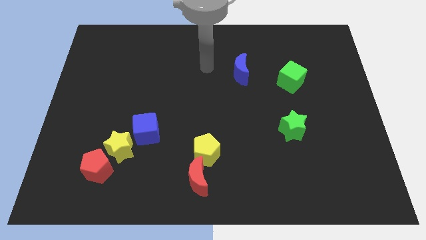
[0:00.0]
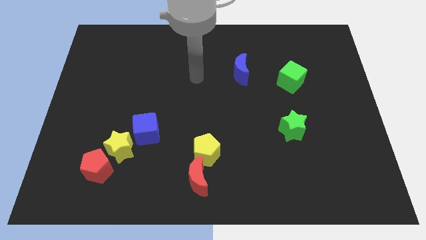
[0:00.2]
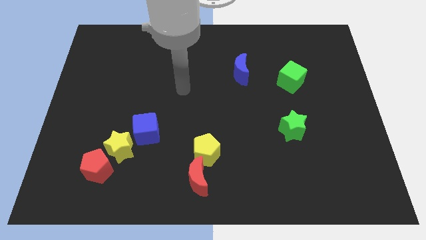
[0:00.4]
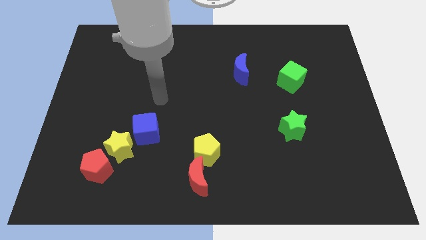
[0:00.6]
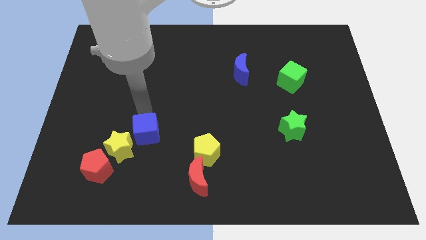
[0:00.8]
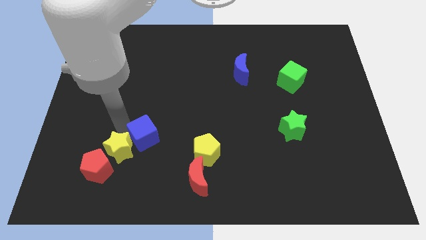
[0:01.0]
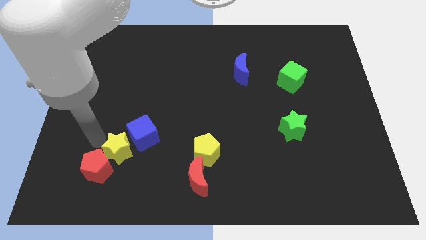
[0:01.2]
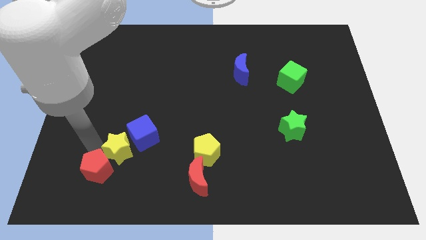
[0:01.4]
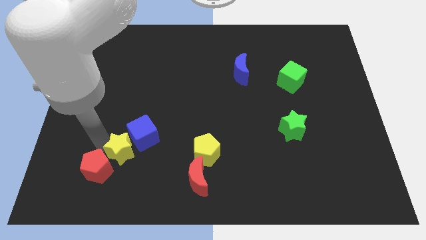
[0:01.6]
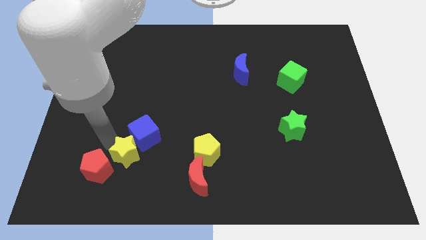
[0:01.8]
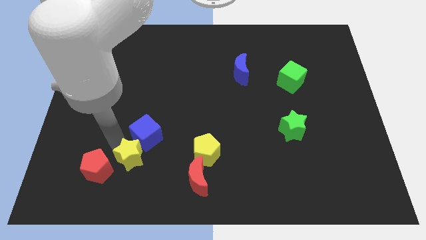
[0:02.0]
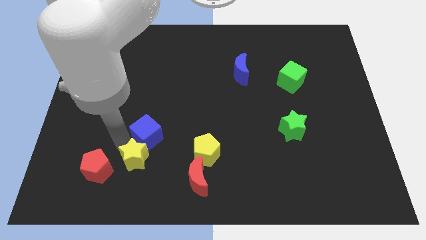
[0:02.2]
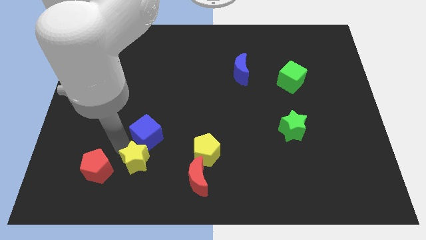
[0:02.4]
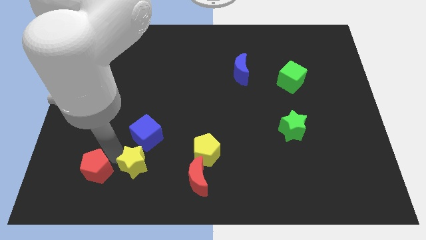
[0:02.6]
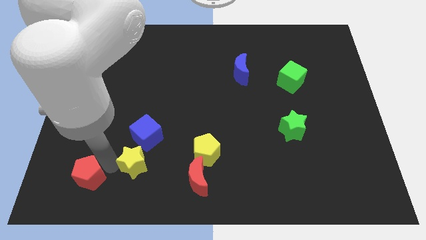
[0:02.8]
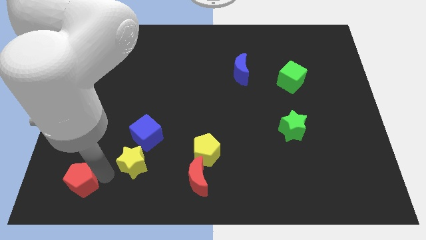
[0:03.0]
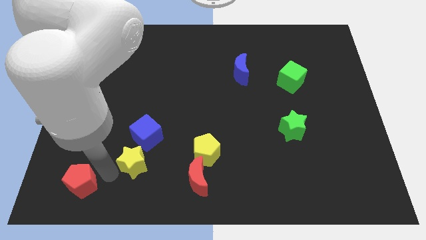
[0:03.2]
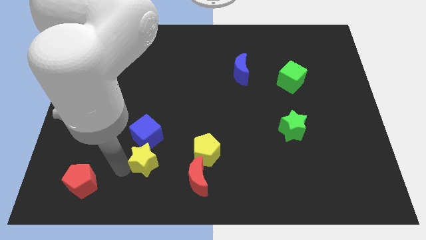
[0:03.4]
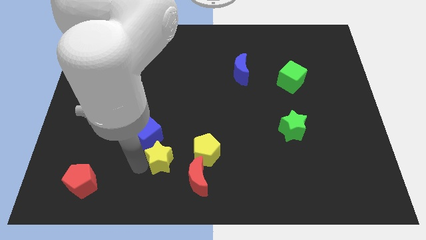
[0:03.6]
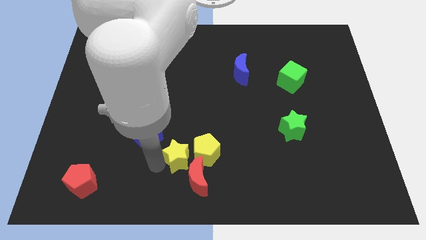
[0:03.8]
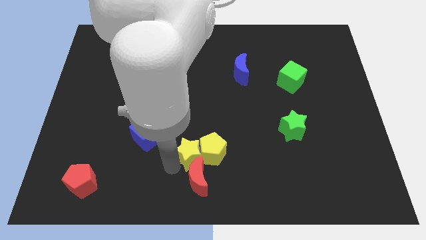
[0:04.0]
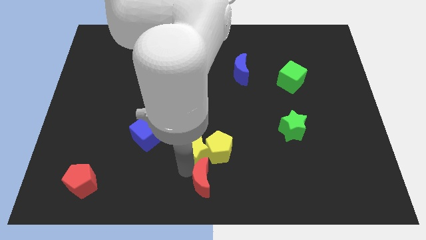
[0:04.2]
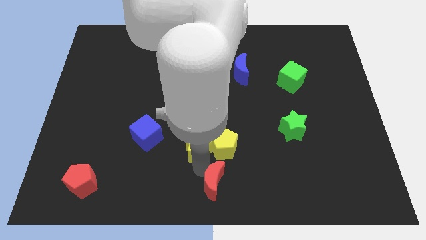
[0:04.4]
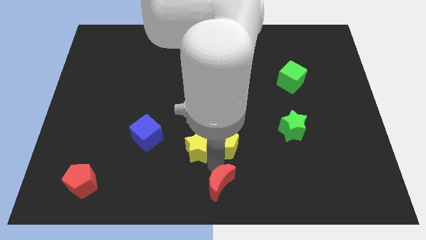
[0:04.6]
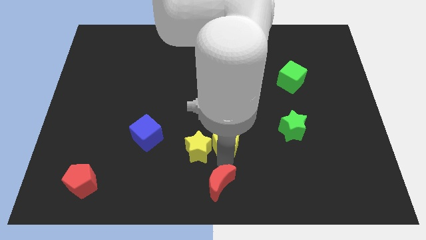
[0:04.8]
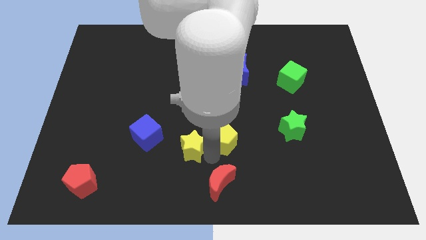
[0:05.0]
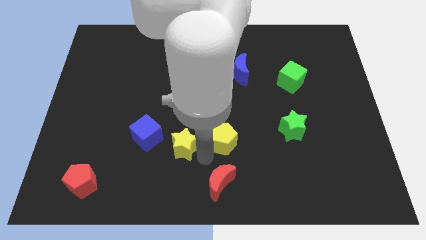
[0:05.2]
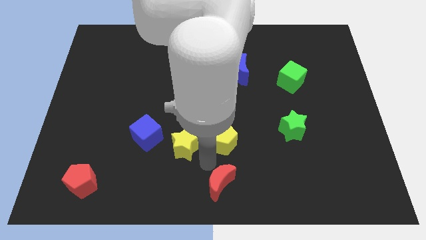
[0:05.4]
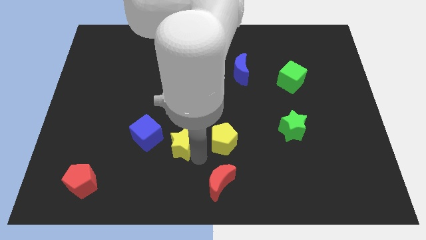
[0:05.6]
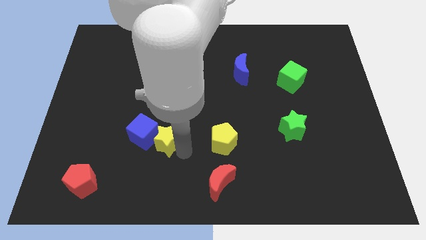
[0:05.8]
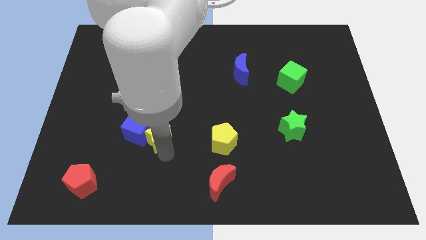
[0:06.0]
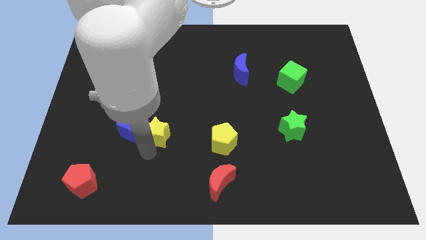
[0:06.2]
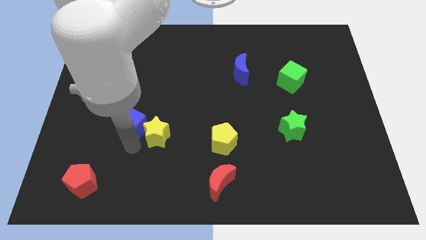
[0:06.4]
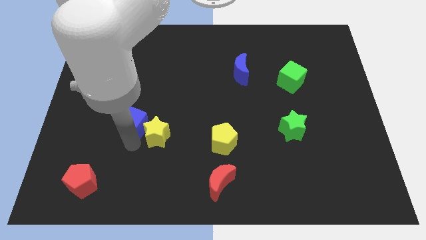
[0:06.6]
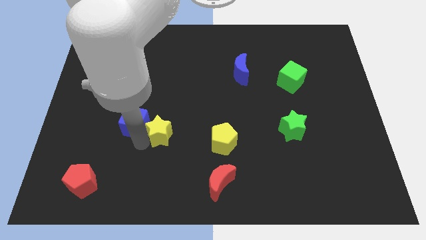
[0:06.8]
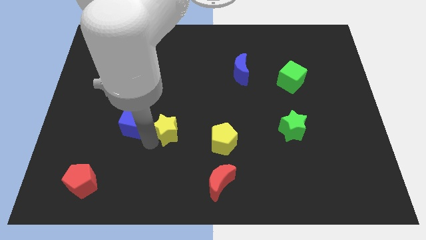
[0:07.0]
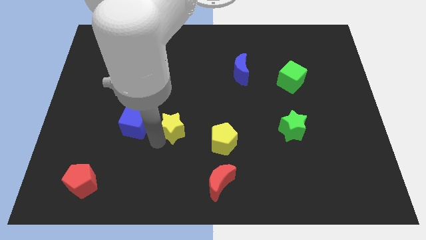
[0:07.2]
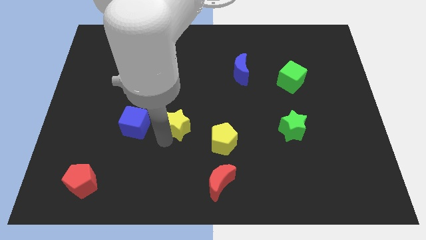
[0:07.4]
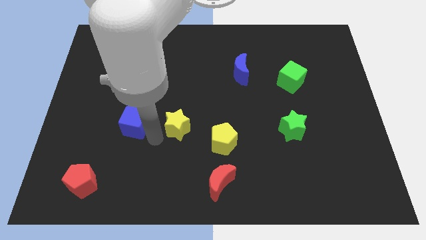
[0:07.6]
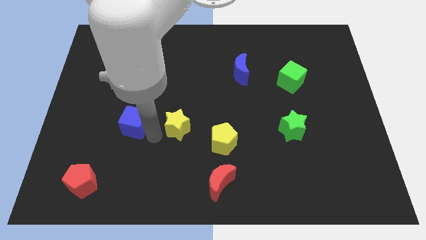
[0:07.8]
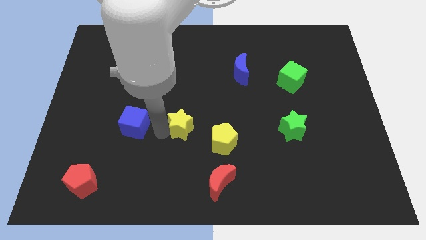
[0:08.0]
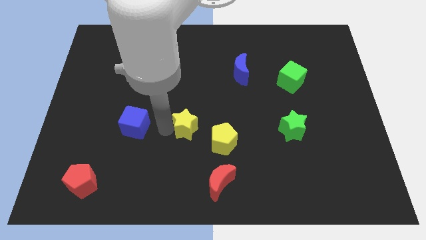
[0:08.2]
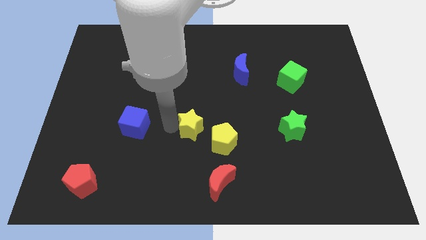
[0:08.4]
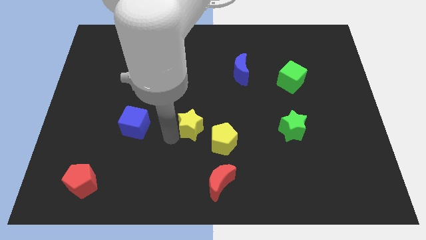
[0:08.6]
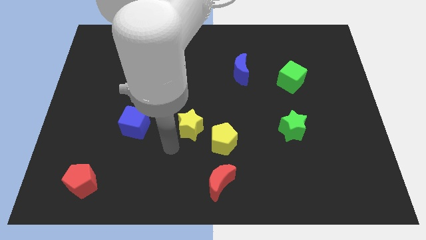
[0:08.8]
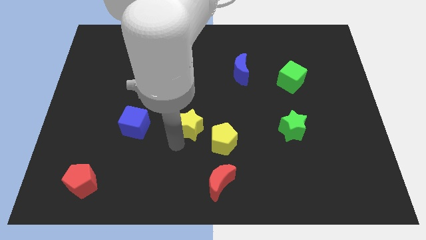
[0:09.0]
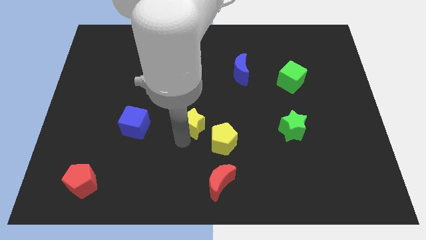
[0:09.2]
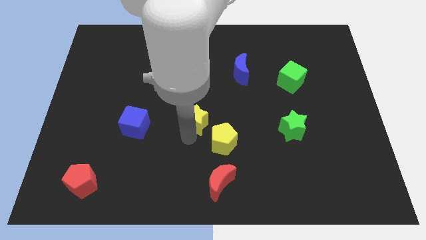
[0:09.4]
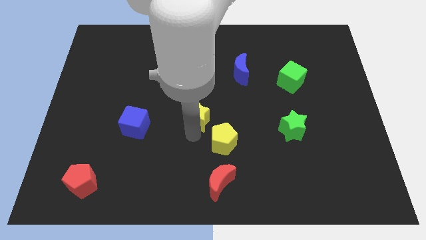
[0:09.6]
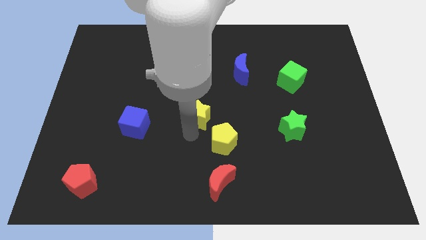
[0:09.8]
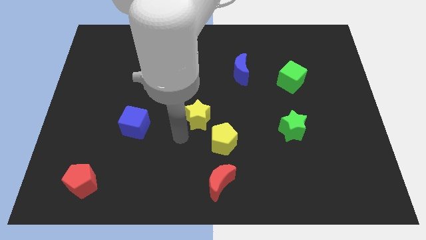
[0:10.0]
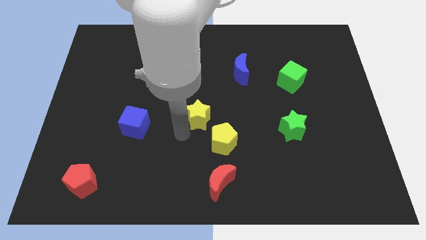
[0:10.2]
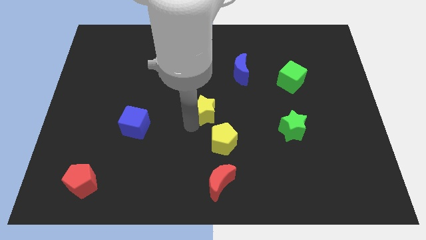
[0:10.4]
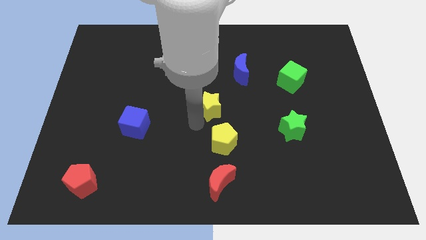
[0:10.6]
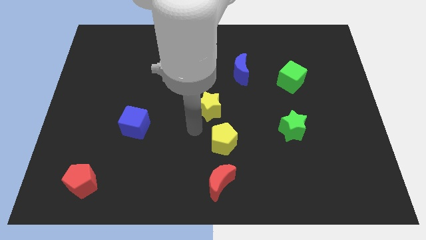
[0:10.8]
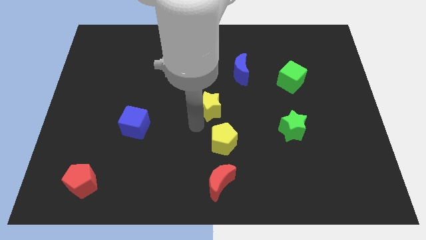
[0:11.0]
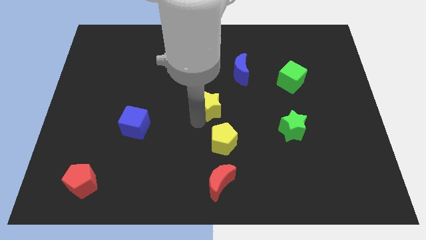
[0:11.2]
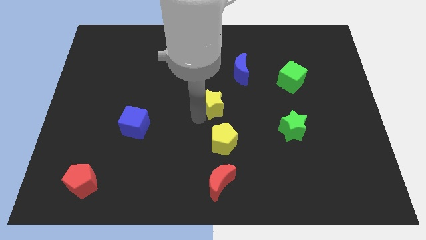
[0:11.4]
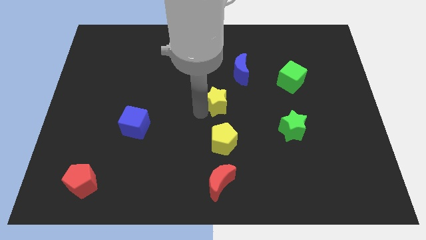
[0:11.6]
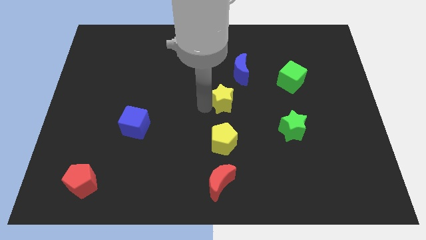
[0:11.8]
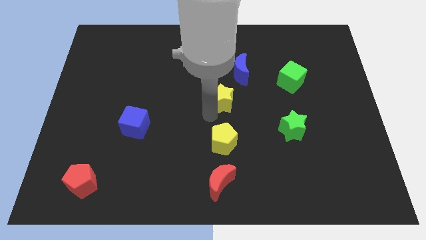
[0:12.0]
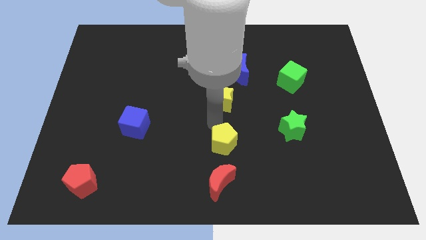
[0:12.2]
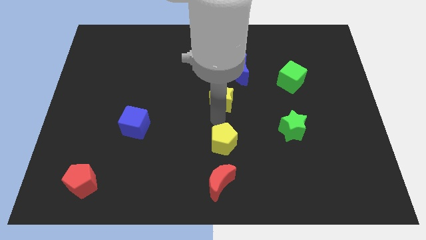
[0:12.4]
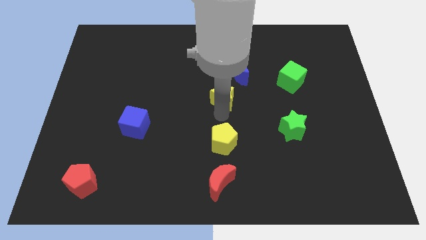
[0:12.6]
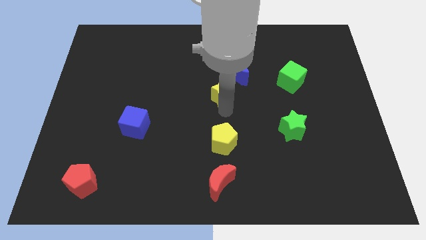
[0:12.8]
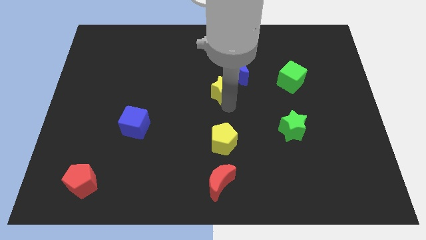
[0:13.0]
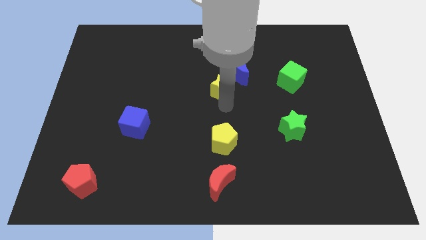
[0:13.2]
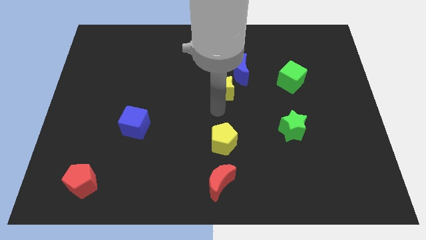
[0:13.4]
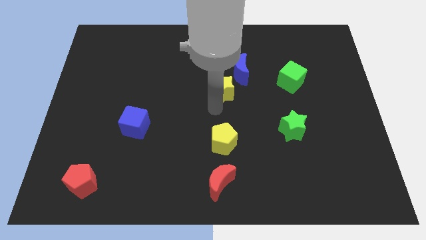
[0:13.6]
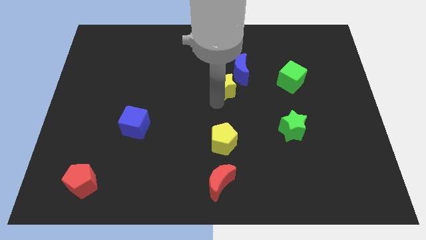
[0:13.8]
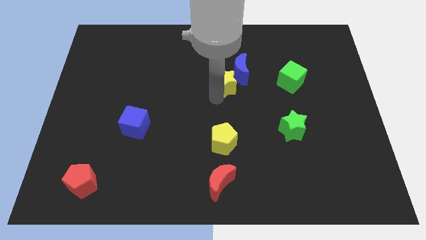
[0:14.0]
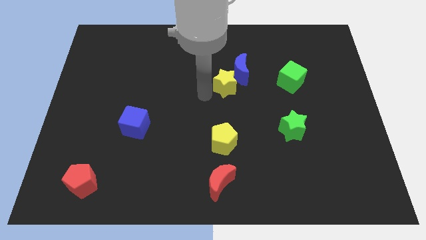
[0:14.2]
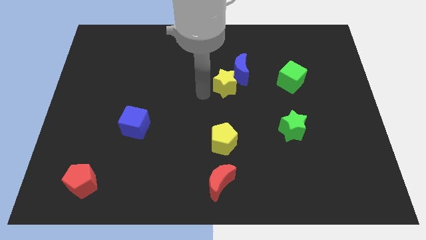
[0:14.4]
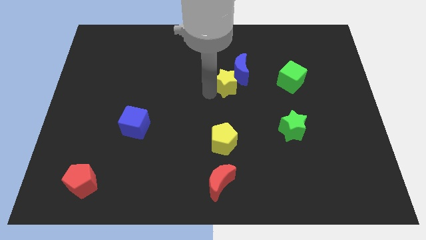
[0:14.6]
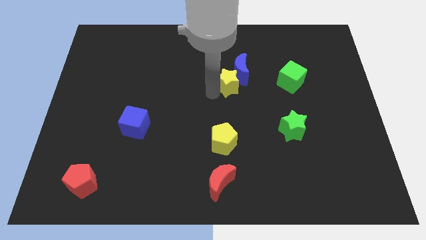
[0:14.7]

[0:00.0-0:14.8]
move the yellow star to the left side of the green cube
